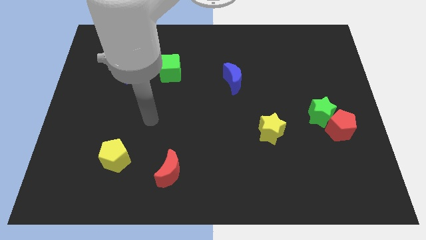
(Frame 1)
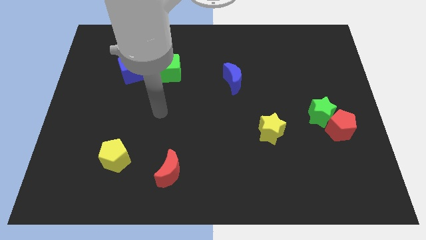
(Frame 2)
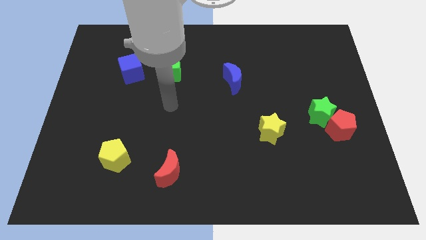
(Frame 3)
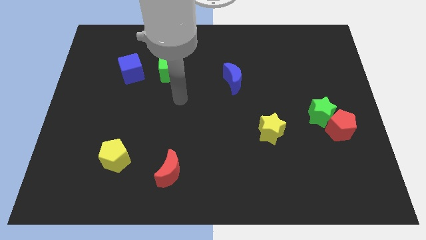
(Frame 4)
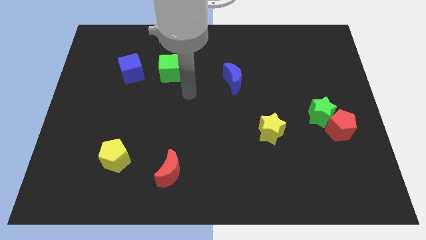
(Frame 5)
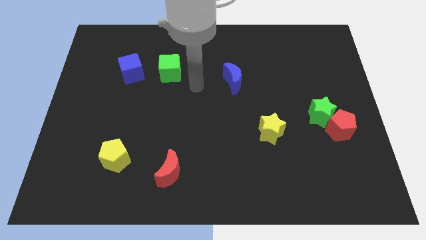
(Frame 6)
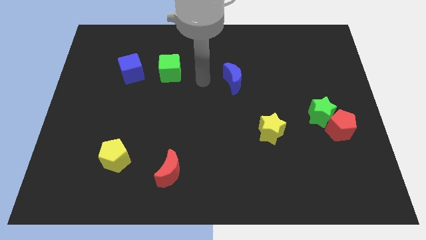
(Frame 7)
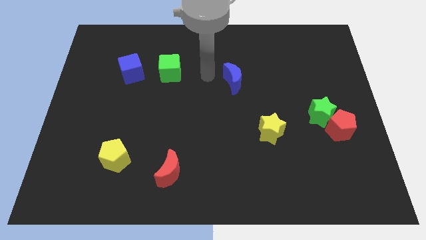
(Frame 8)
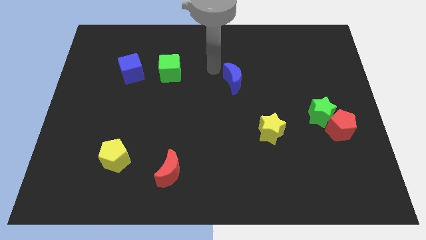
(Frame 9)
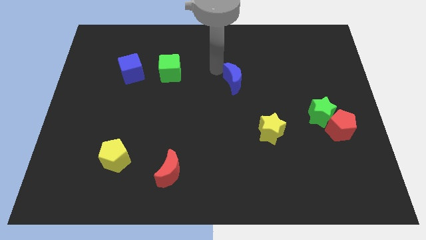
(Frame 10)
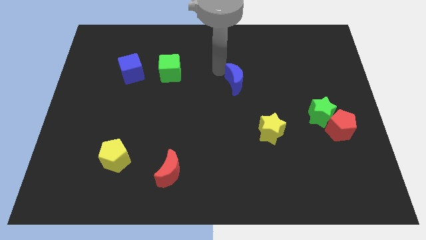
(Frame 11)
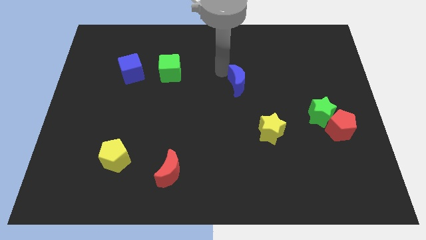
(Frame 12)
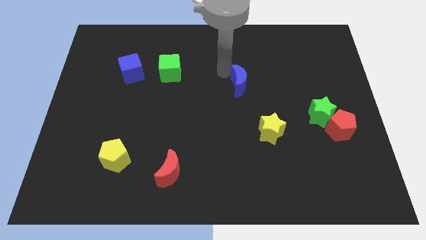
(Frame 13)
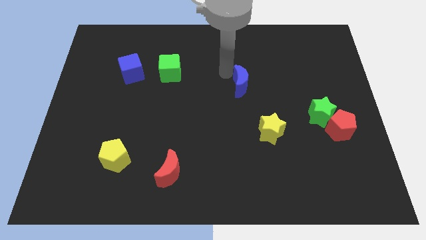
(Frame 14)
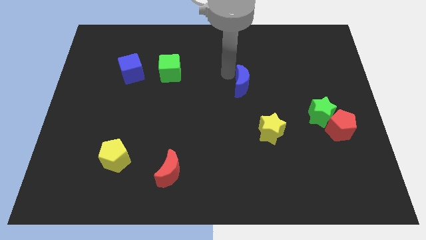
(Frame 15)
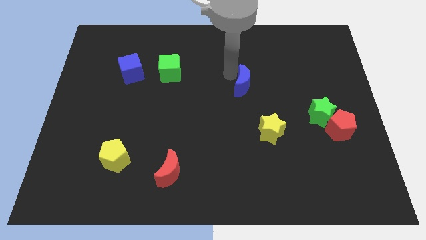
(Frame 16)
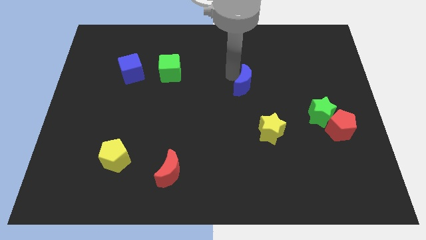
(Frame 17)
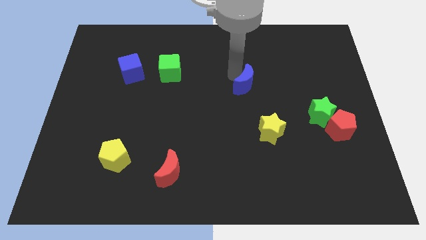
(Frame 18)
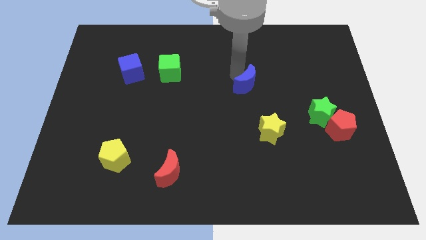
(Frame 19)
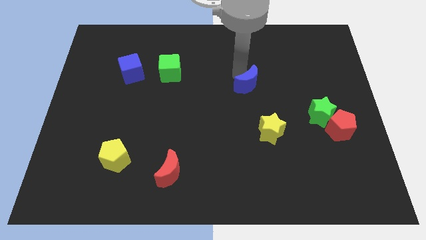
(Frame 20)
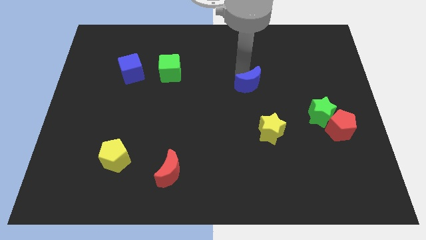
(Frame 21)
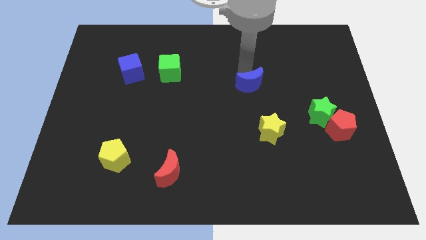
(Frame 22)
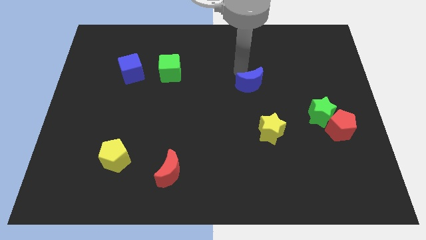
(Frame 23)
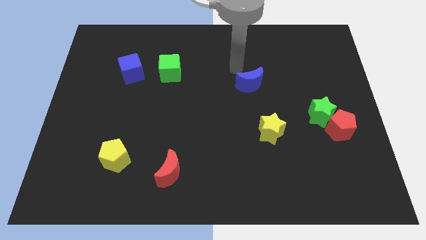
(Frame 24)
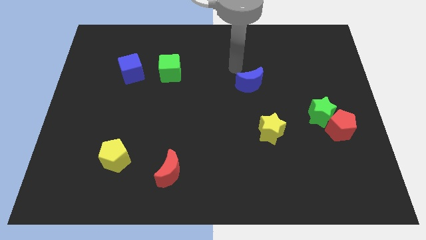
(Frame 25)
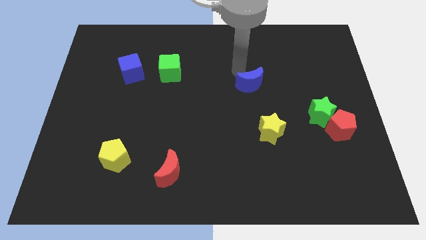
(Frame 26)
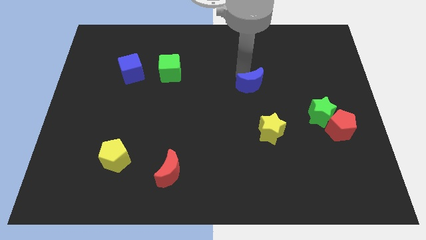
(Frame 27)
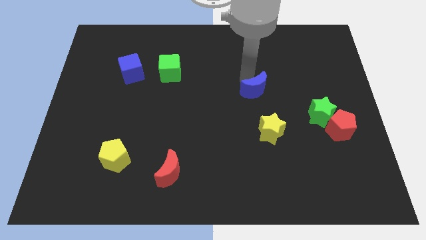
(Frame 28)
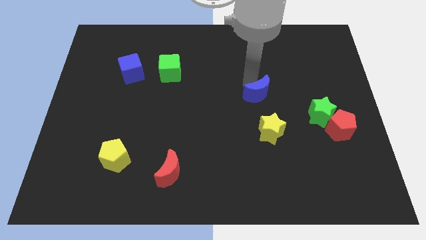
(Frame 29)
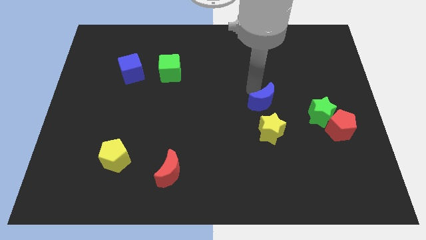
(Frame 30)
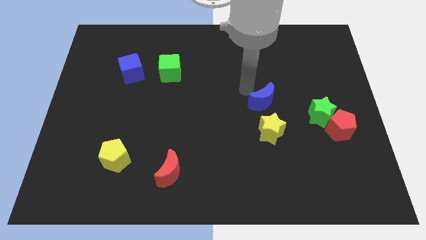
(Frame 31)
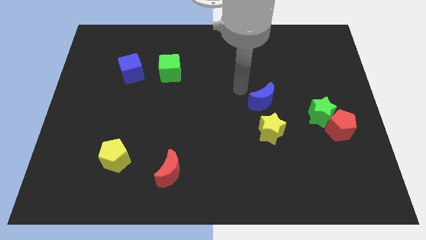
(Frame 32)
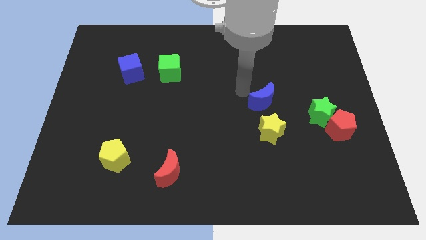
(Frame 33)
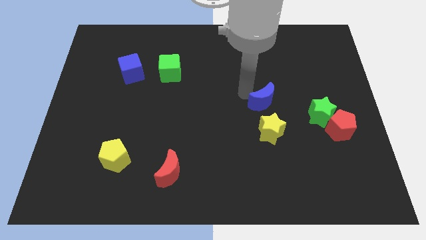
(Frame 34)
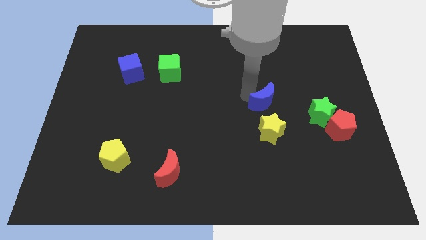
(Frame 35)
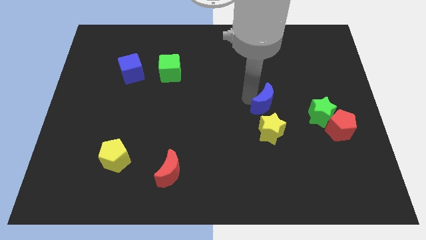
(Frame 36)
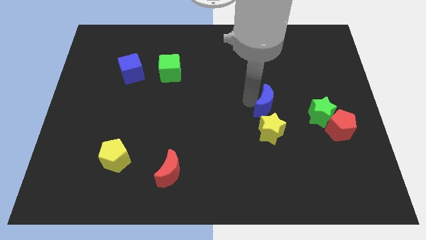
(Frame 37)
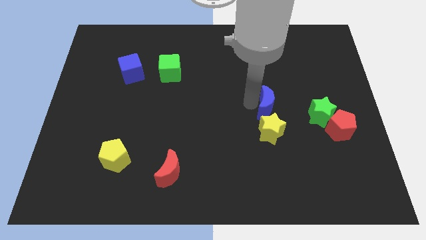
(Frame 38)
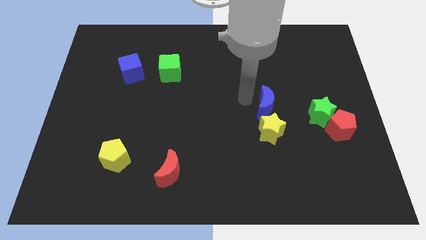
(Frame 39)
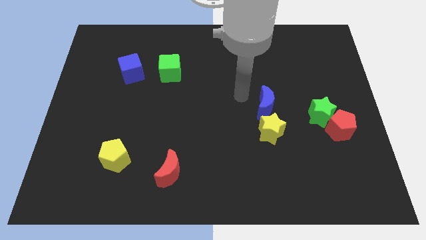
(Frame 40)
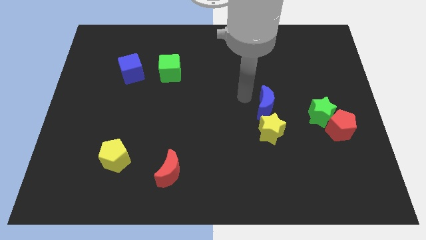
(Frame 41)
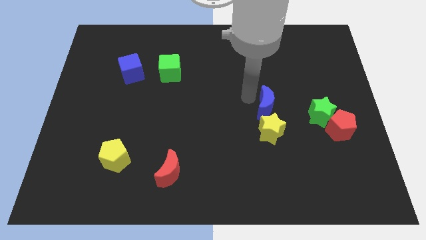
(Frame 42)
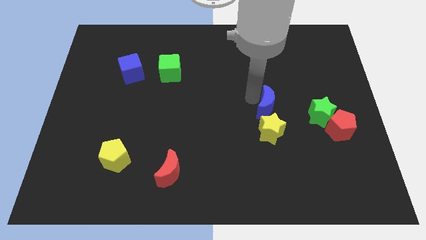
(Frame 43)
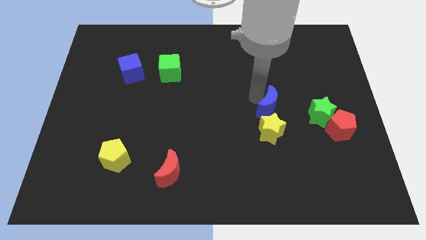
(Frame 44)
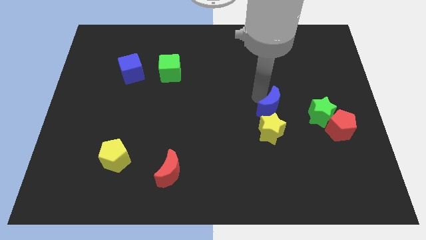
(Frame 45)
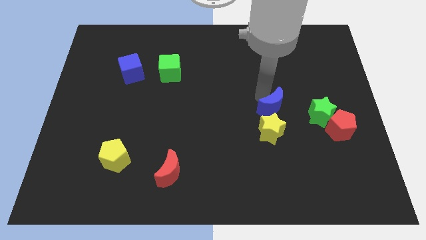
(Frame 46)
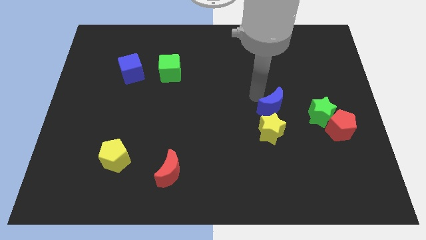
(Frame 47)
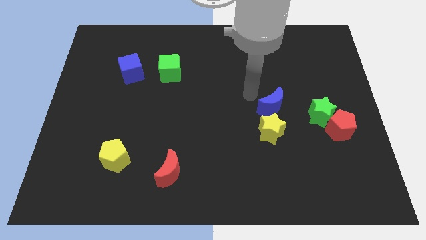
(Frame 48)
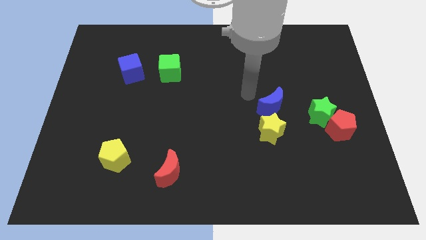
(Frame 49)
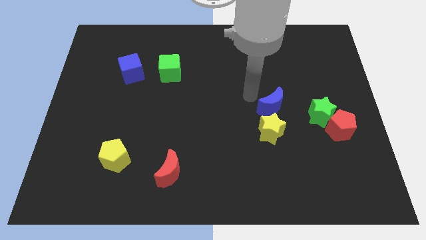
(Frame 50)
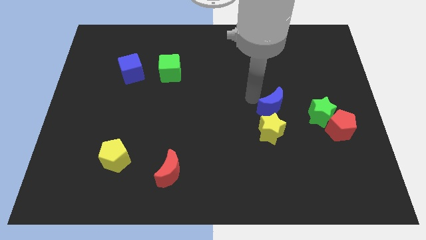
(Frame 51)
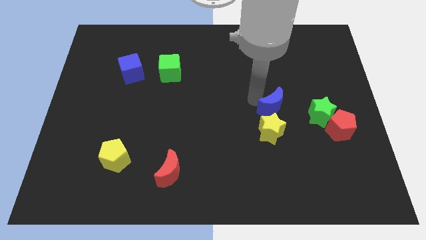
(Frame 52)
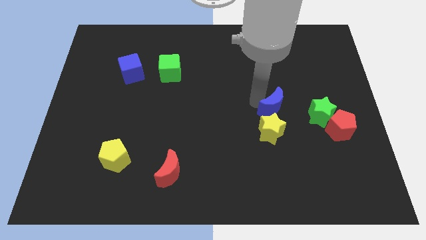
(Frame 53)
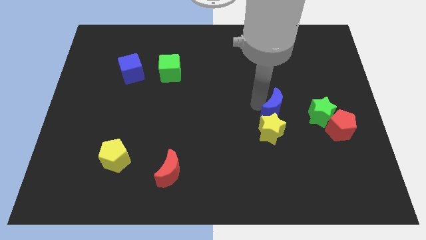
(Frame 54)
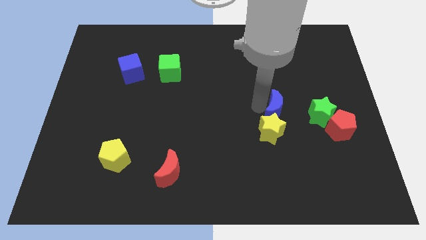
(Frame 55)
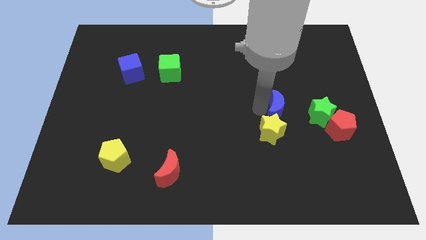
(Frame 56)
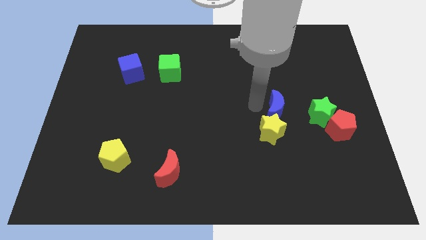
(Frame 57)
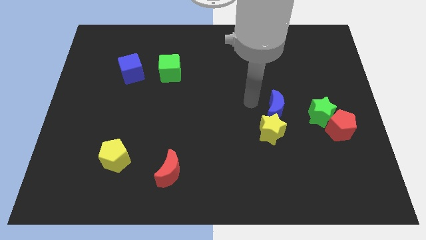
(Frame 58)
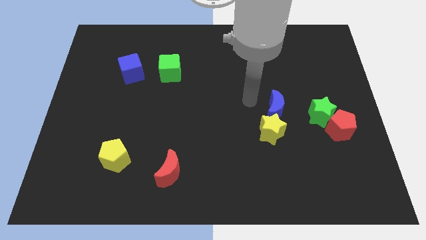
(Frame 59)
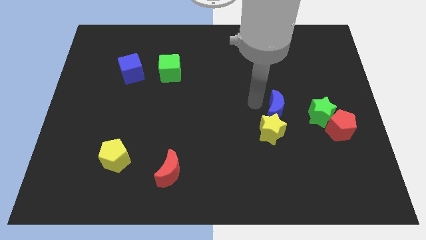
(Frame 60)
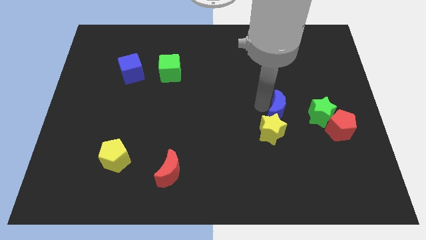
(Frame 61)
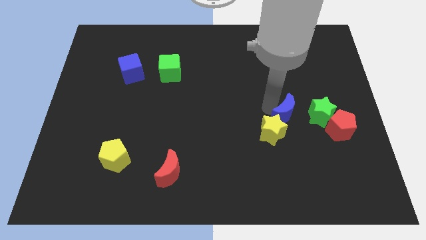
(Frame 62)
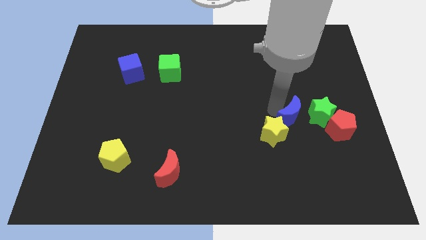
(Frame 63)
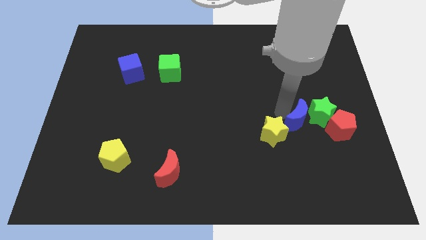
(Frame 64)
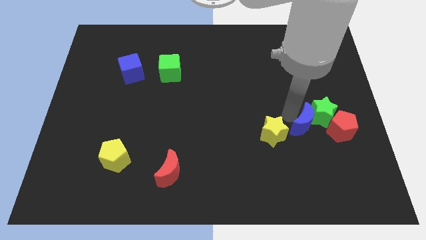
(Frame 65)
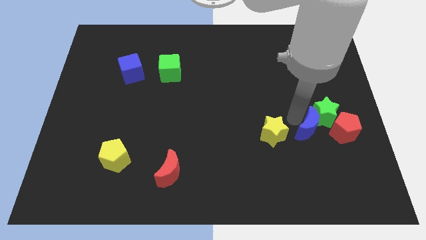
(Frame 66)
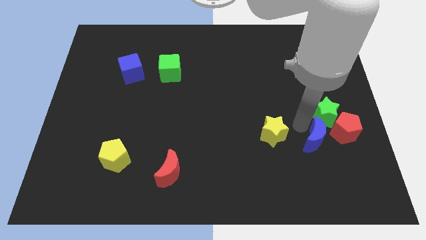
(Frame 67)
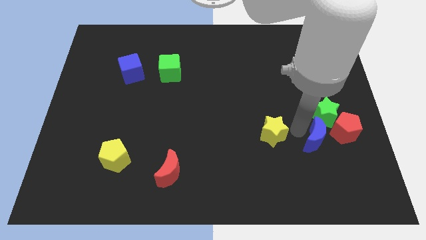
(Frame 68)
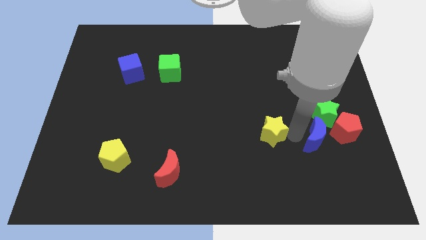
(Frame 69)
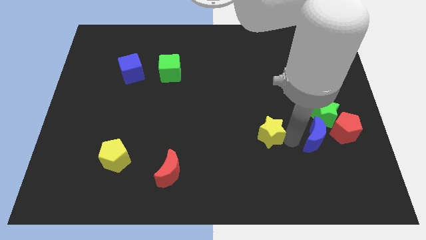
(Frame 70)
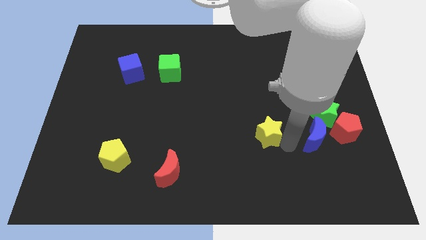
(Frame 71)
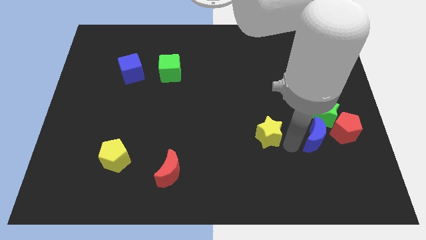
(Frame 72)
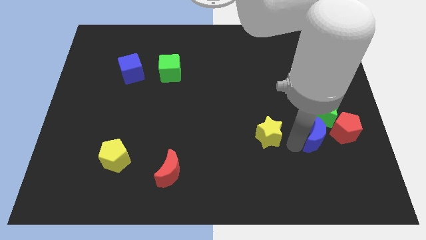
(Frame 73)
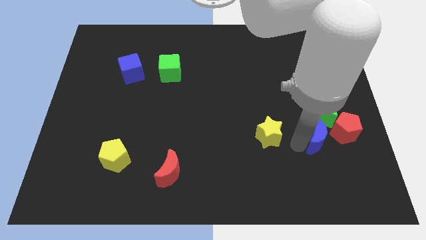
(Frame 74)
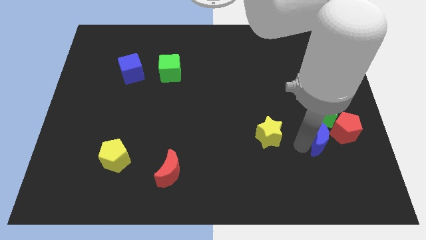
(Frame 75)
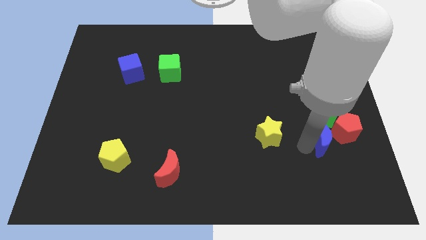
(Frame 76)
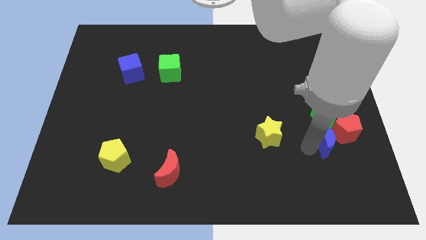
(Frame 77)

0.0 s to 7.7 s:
push the blue moon next to the red pentagon

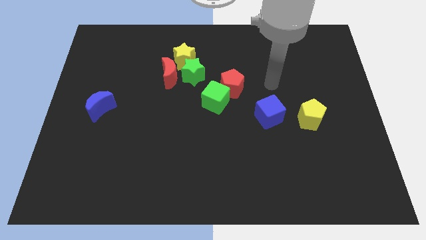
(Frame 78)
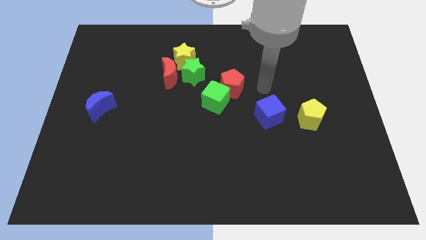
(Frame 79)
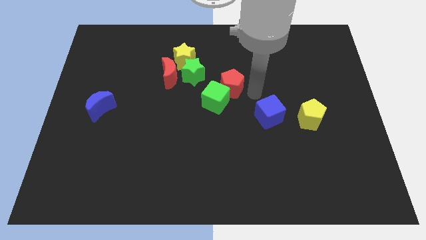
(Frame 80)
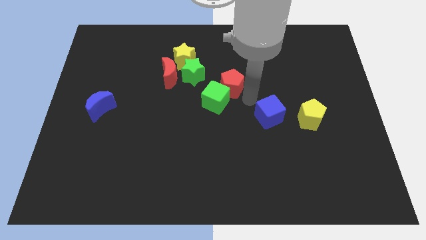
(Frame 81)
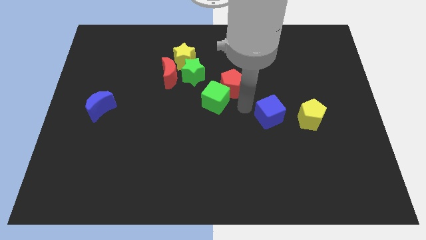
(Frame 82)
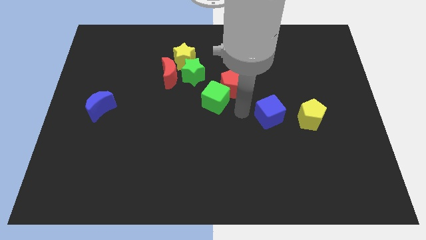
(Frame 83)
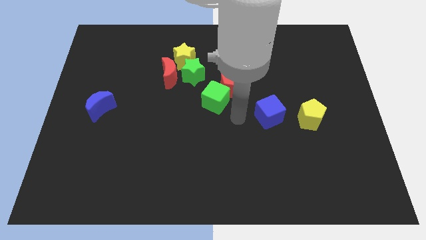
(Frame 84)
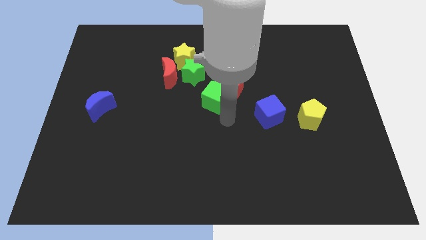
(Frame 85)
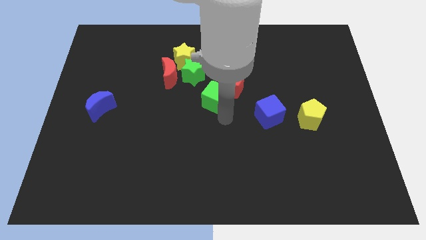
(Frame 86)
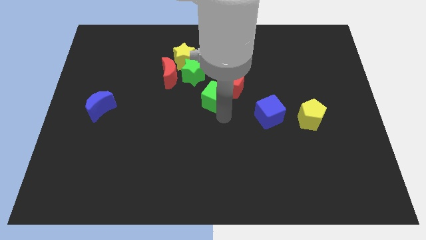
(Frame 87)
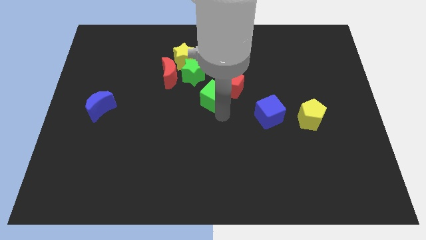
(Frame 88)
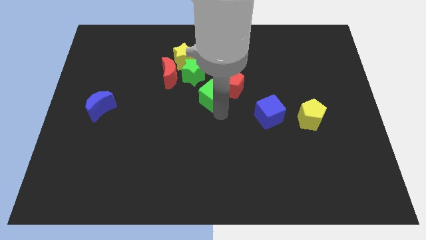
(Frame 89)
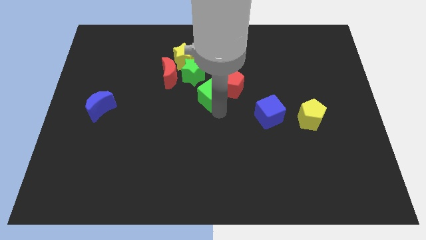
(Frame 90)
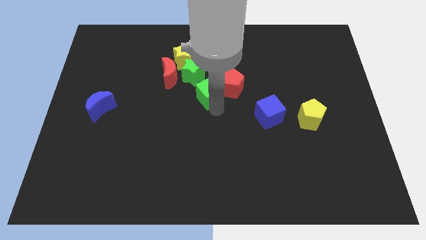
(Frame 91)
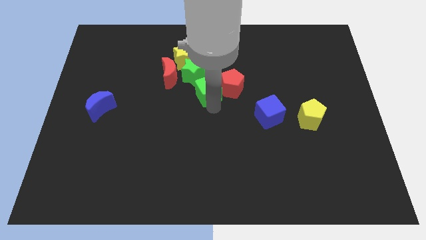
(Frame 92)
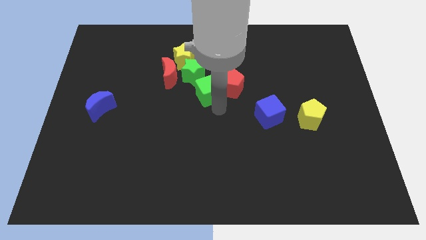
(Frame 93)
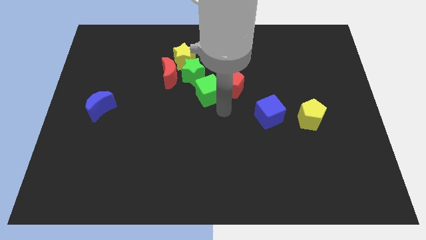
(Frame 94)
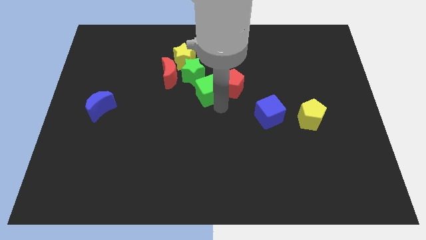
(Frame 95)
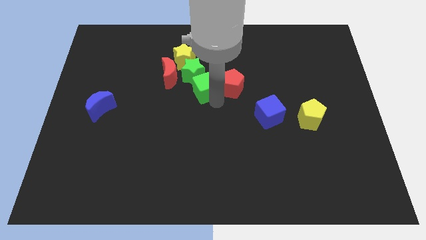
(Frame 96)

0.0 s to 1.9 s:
put the green cube towards the green star
